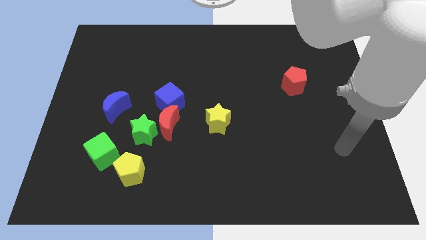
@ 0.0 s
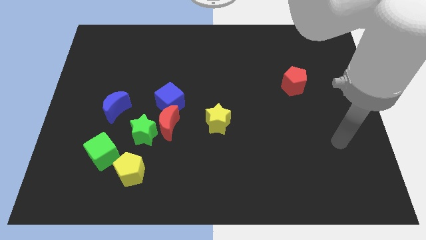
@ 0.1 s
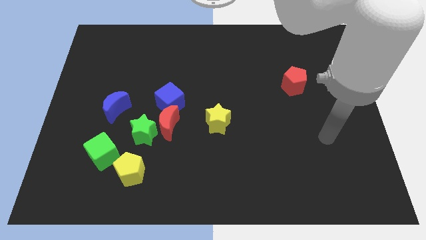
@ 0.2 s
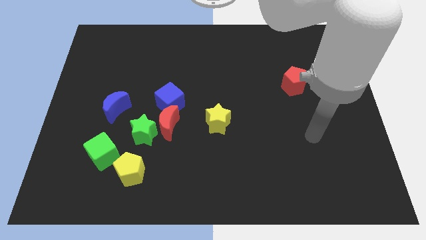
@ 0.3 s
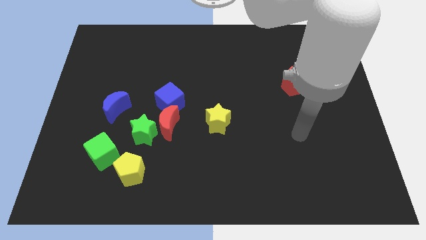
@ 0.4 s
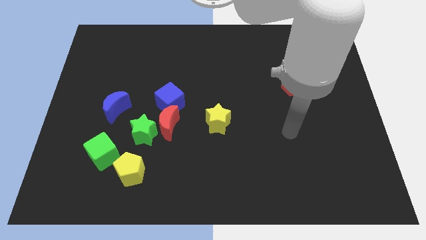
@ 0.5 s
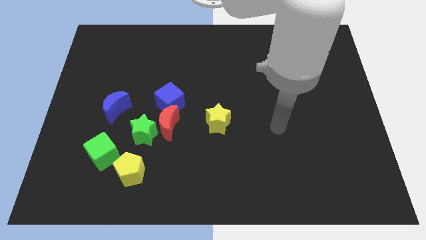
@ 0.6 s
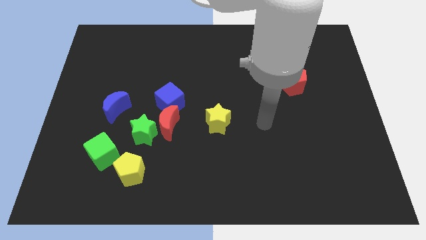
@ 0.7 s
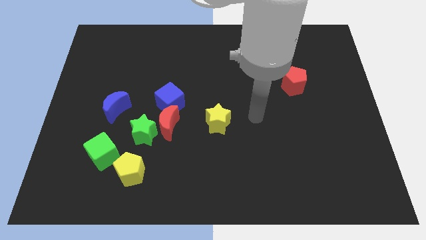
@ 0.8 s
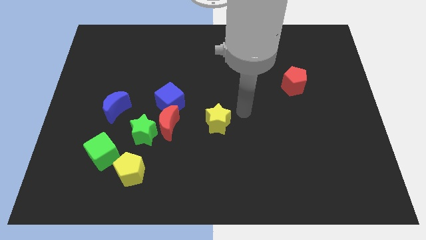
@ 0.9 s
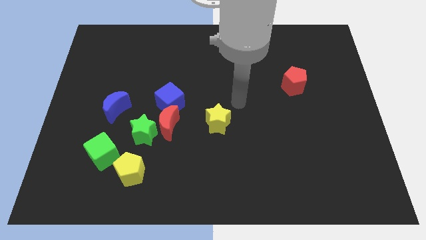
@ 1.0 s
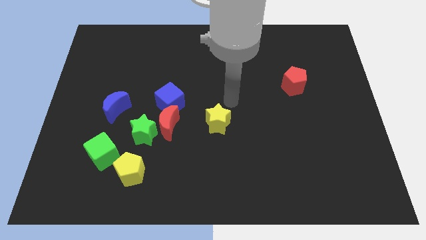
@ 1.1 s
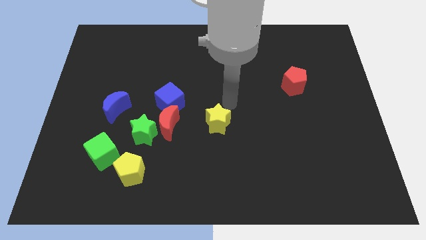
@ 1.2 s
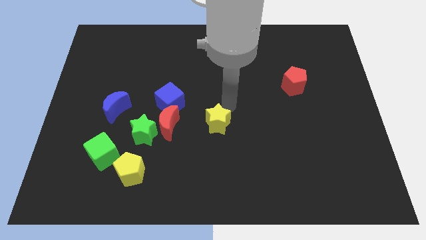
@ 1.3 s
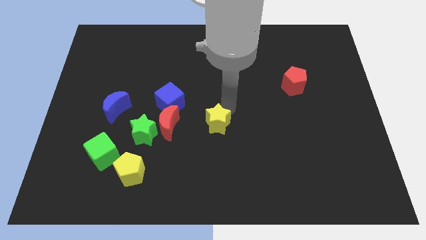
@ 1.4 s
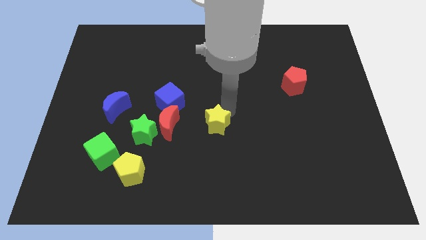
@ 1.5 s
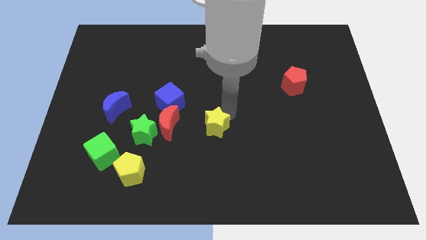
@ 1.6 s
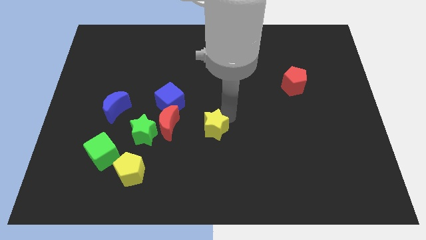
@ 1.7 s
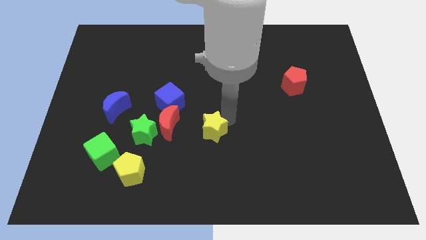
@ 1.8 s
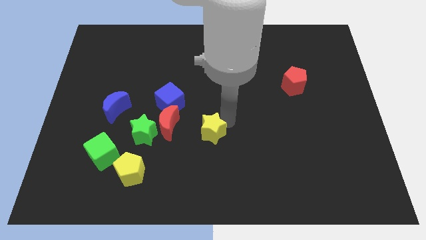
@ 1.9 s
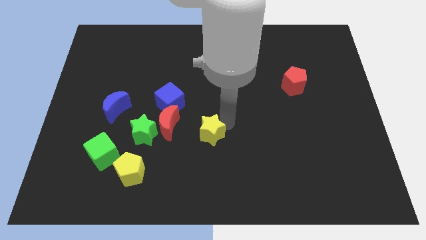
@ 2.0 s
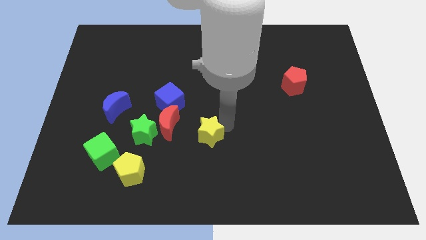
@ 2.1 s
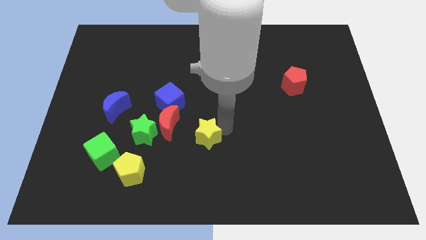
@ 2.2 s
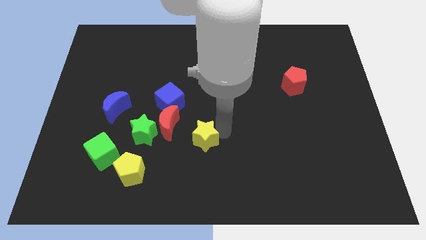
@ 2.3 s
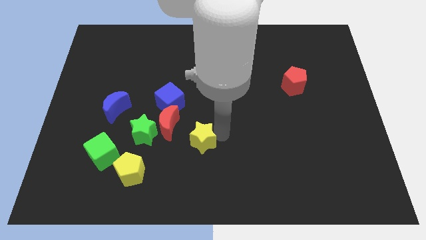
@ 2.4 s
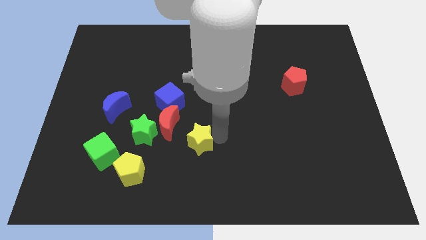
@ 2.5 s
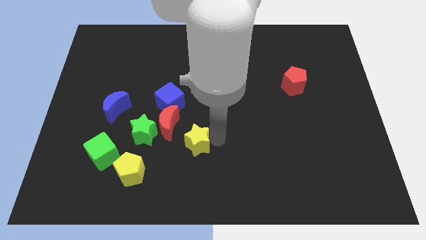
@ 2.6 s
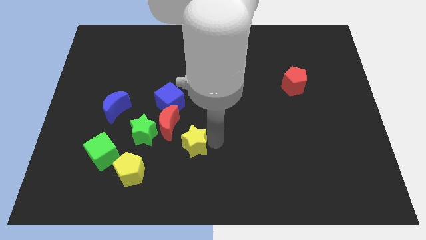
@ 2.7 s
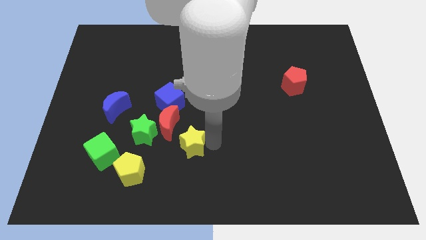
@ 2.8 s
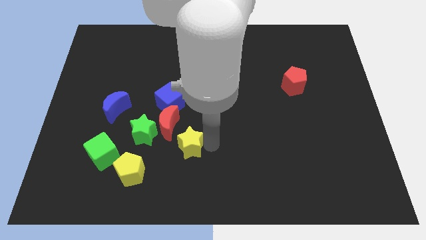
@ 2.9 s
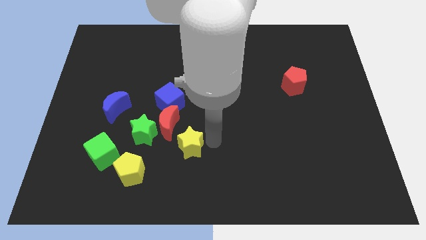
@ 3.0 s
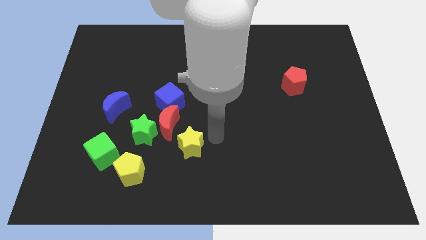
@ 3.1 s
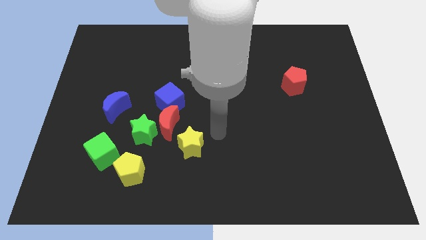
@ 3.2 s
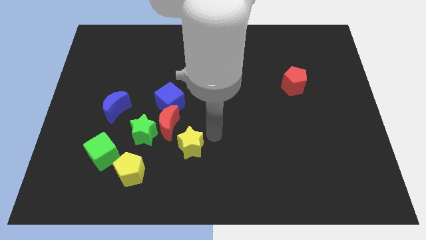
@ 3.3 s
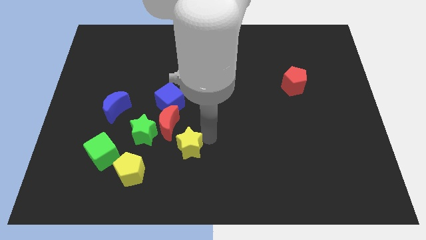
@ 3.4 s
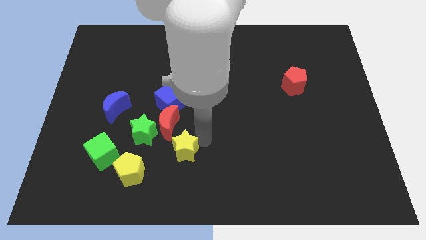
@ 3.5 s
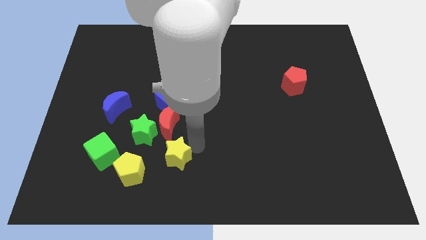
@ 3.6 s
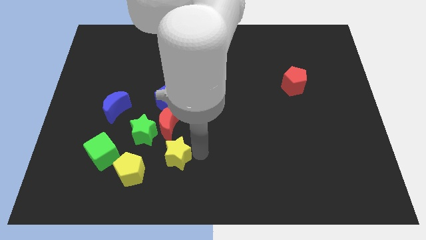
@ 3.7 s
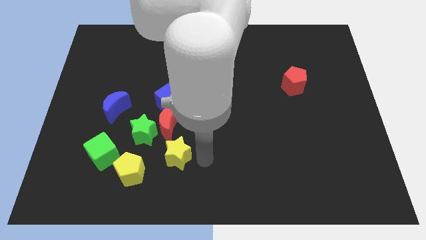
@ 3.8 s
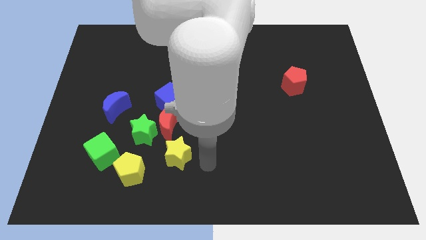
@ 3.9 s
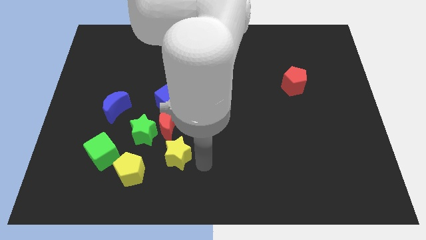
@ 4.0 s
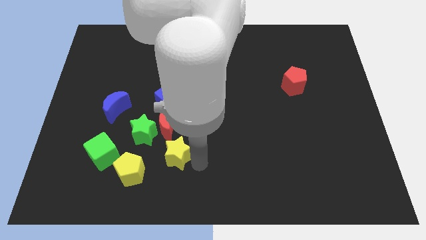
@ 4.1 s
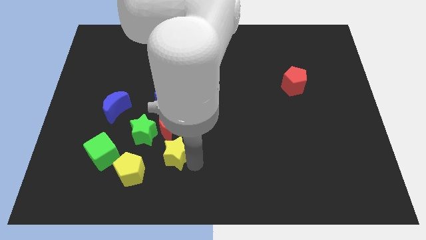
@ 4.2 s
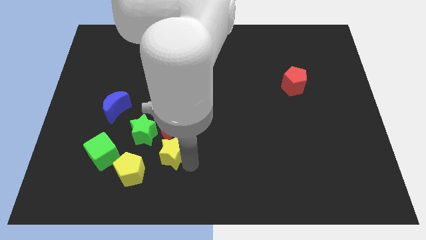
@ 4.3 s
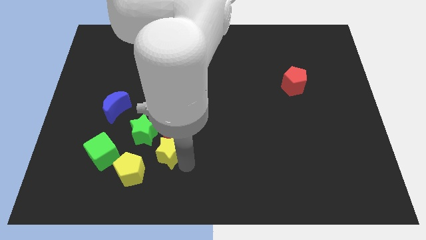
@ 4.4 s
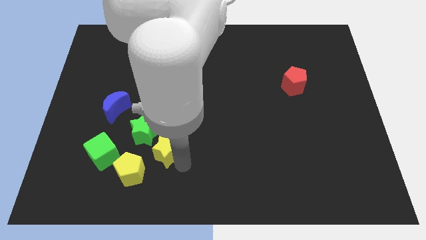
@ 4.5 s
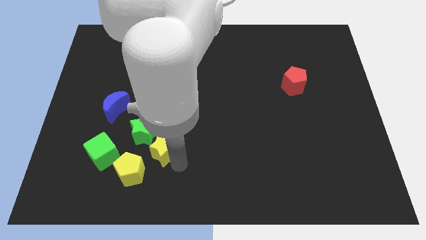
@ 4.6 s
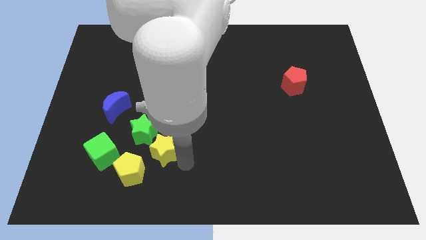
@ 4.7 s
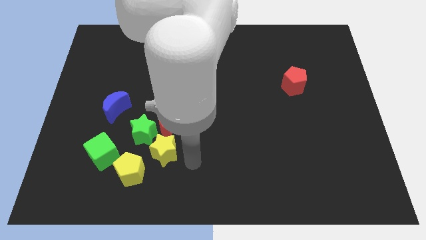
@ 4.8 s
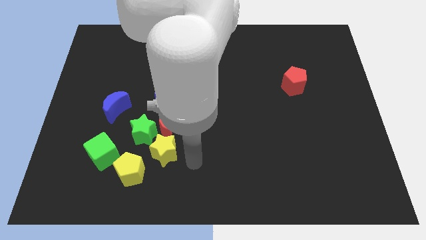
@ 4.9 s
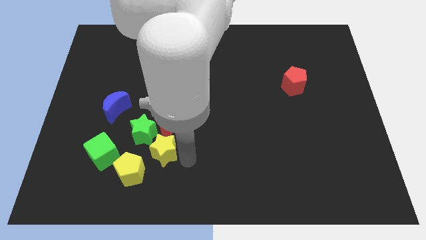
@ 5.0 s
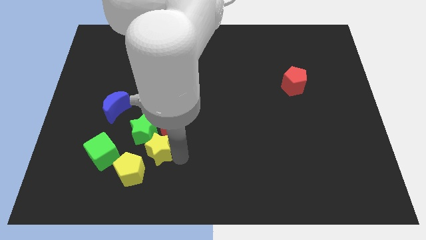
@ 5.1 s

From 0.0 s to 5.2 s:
move the yellow star to the bottom left side of the red moon

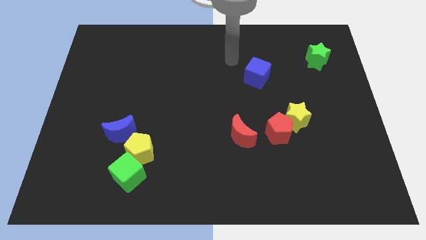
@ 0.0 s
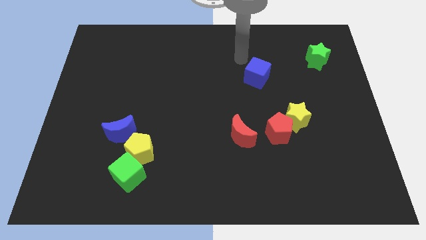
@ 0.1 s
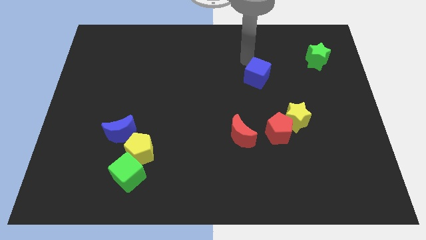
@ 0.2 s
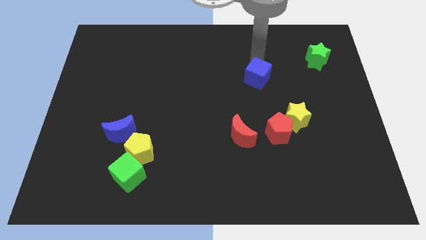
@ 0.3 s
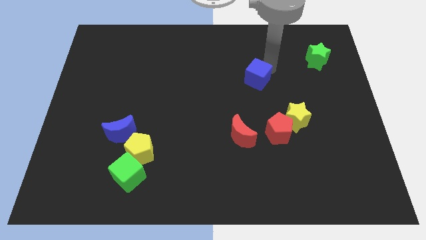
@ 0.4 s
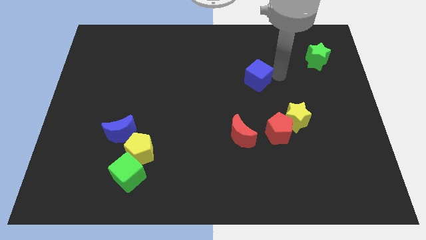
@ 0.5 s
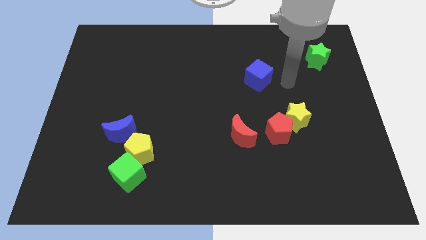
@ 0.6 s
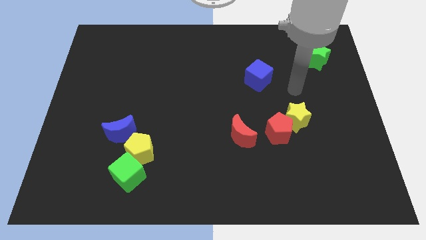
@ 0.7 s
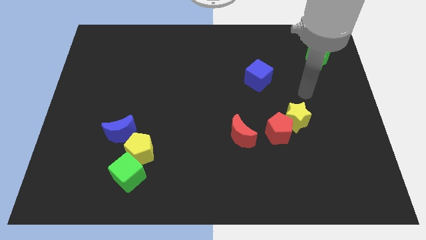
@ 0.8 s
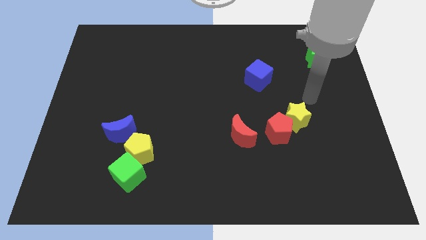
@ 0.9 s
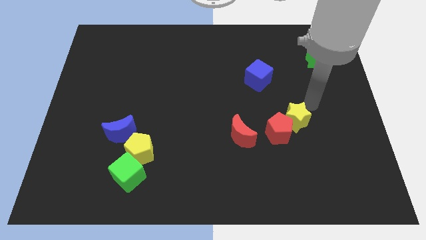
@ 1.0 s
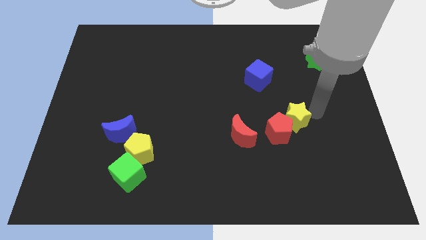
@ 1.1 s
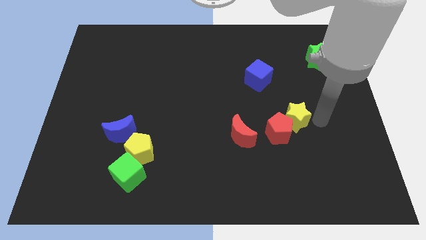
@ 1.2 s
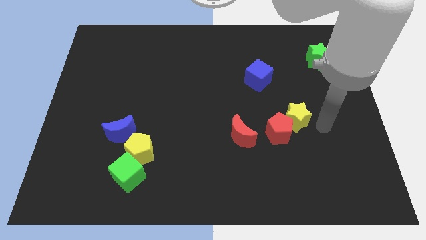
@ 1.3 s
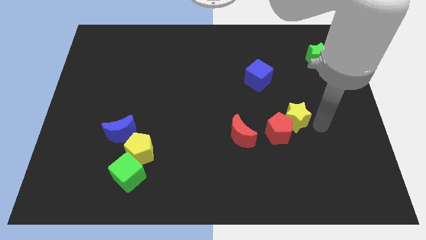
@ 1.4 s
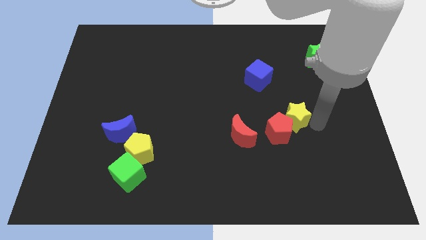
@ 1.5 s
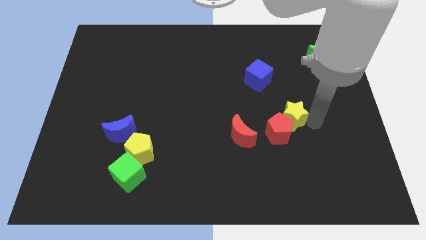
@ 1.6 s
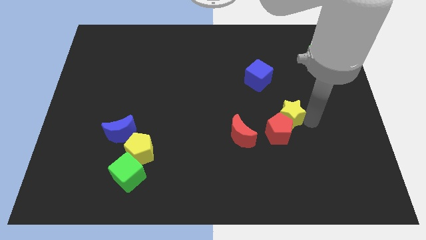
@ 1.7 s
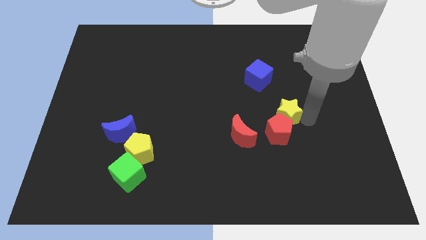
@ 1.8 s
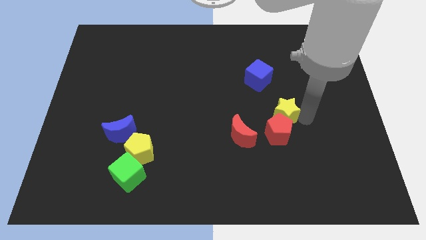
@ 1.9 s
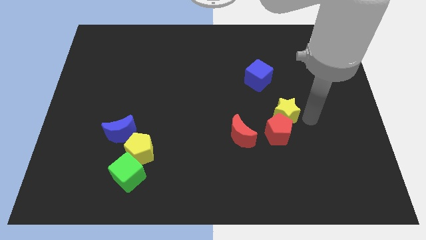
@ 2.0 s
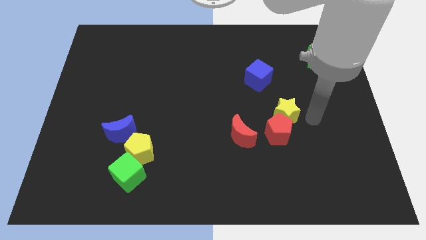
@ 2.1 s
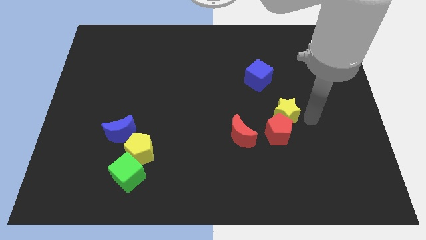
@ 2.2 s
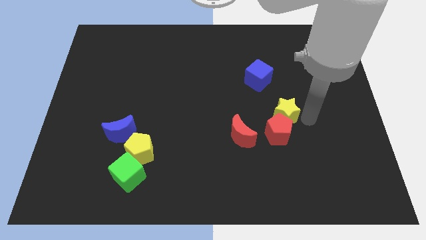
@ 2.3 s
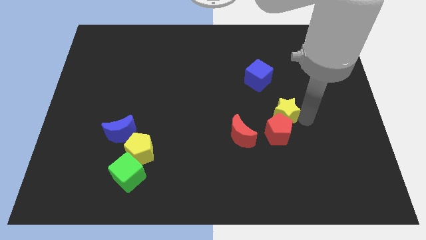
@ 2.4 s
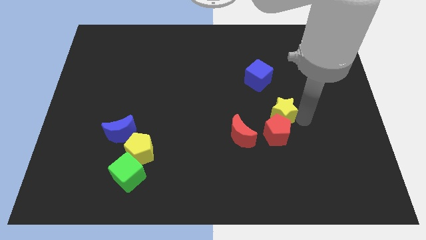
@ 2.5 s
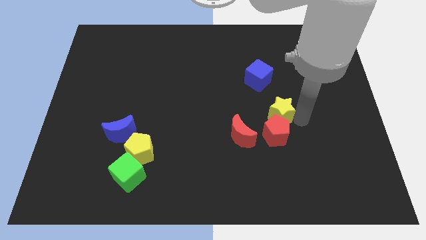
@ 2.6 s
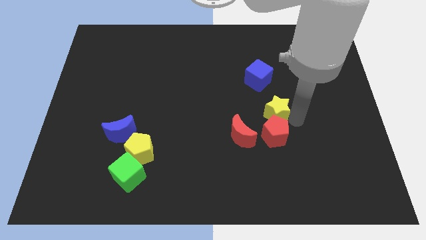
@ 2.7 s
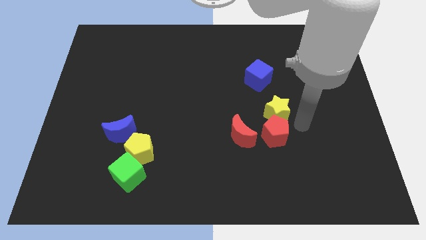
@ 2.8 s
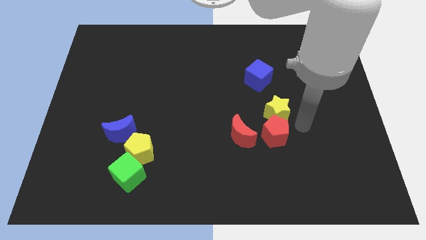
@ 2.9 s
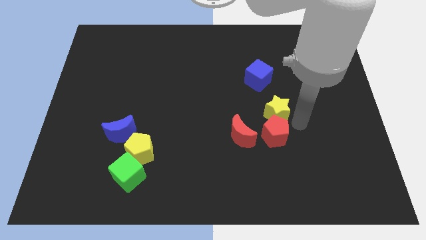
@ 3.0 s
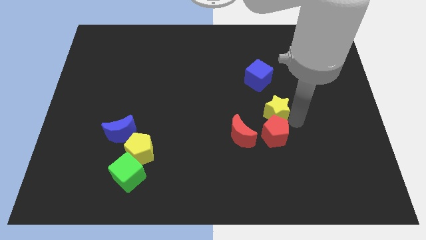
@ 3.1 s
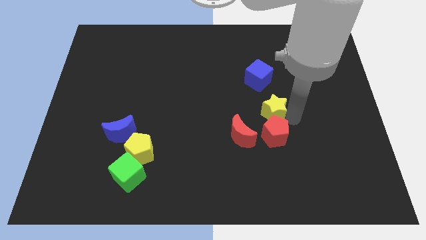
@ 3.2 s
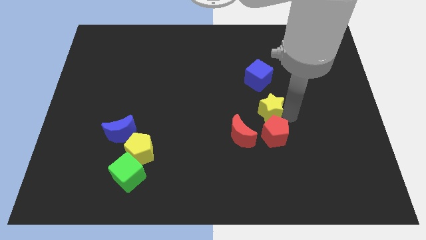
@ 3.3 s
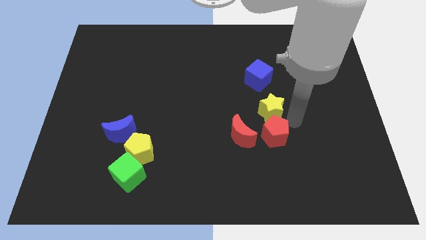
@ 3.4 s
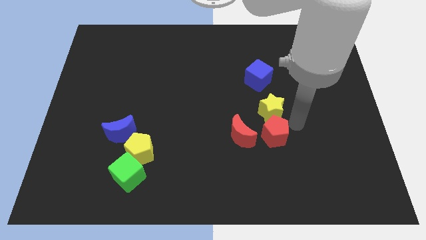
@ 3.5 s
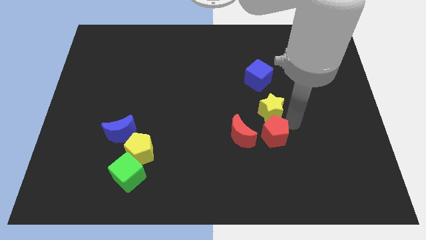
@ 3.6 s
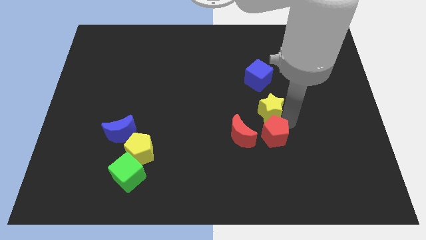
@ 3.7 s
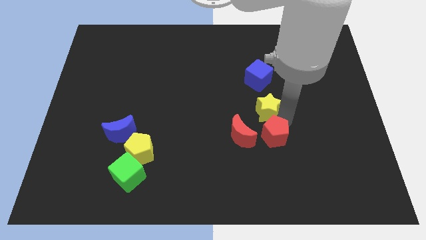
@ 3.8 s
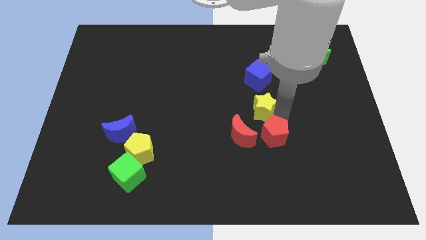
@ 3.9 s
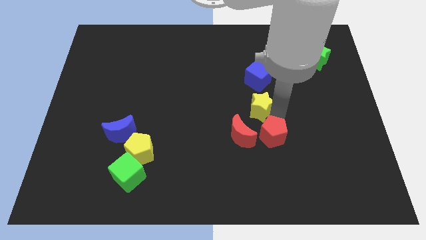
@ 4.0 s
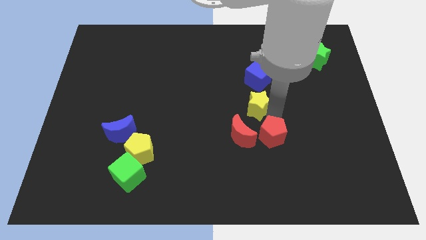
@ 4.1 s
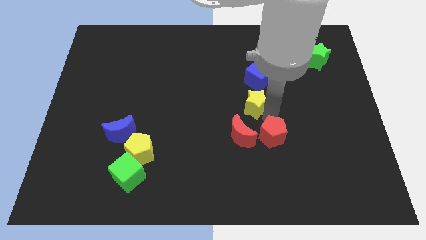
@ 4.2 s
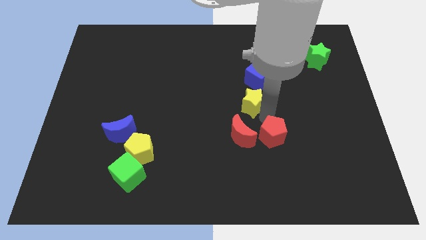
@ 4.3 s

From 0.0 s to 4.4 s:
put the yellow star to the bottom left side of the blue cube
